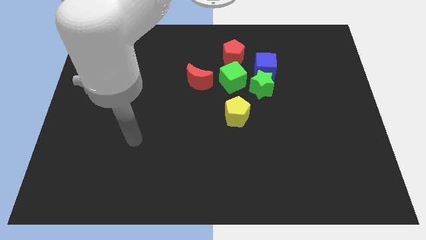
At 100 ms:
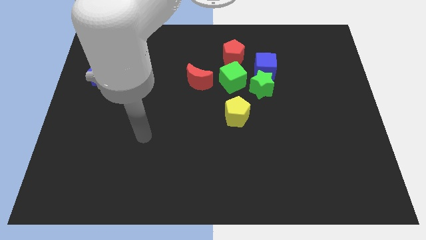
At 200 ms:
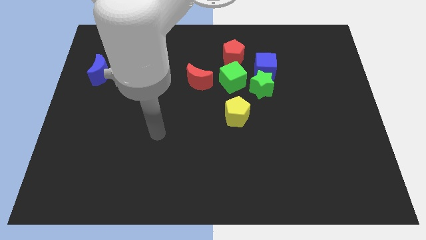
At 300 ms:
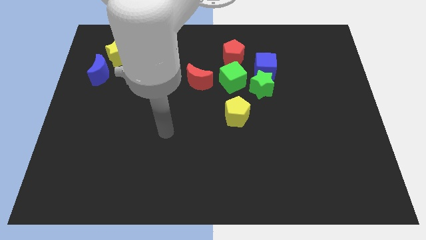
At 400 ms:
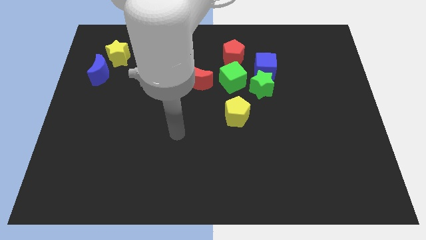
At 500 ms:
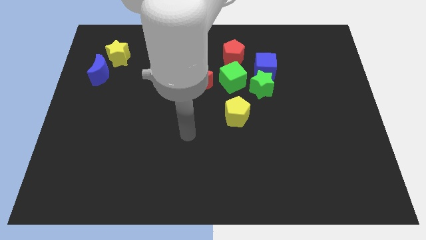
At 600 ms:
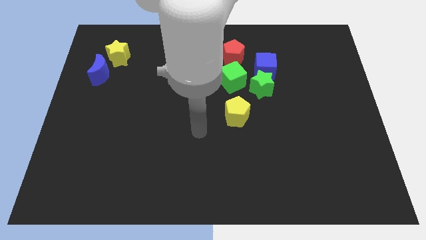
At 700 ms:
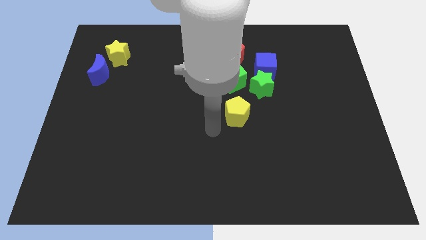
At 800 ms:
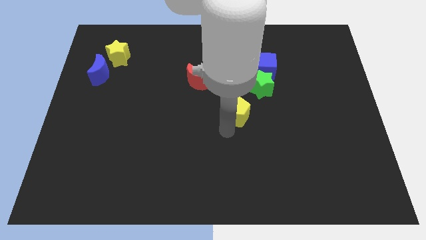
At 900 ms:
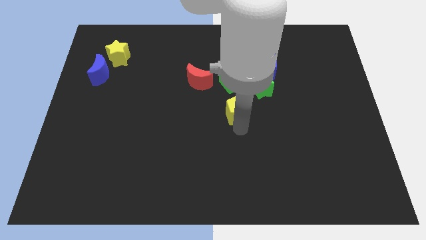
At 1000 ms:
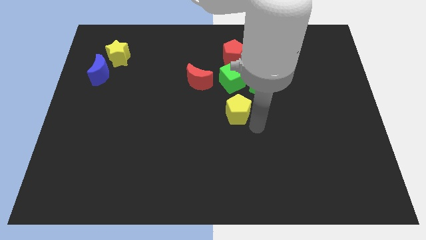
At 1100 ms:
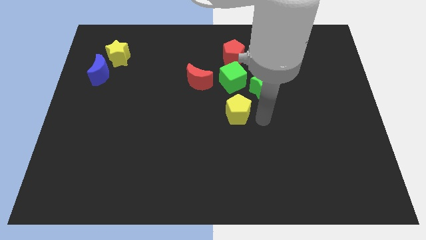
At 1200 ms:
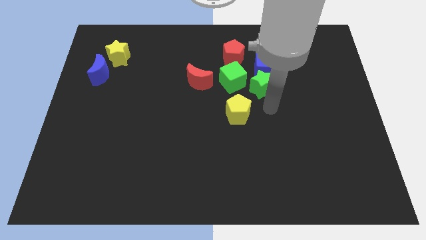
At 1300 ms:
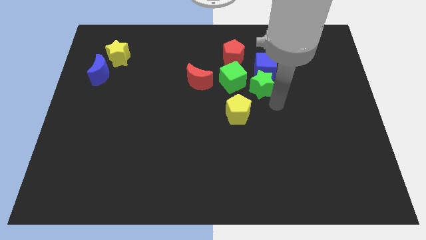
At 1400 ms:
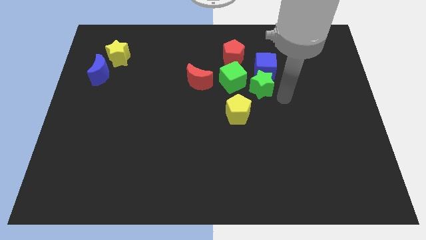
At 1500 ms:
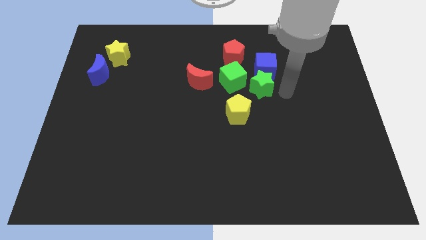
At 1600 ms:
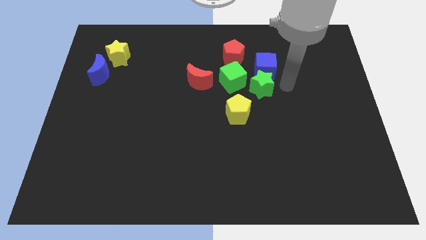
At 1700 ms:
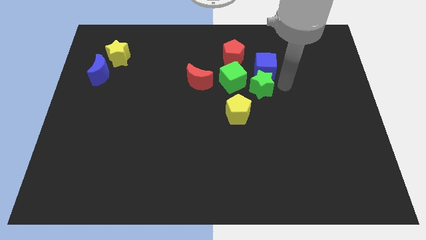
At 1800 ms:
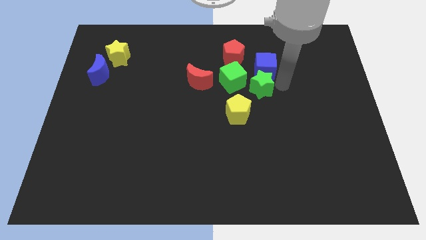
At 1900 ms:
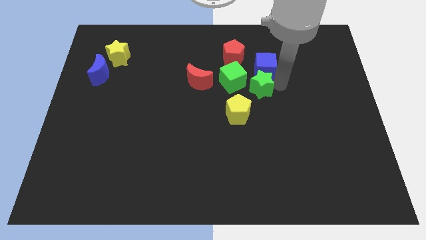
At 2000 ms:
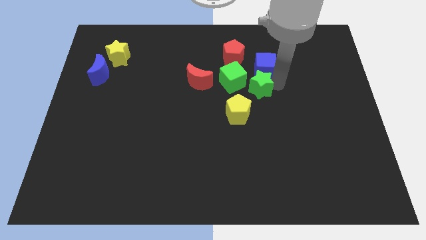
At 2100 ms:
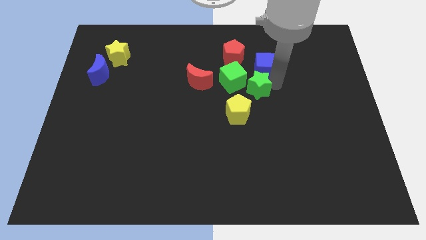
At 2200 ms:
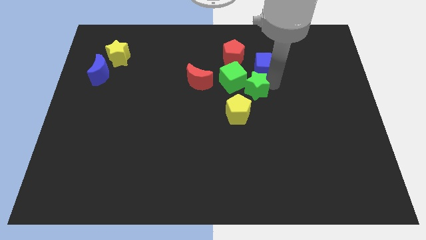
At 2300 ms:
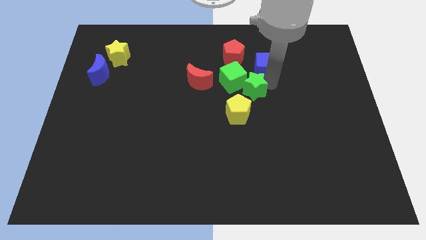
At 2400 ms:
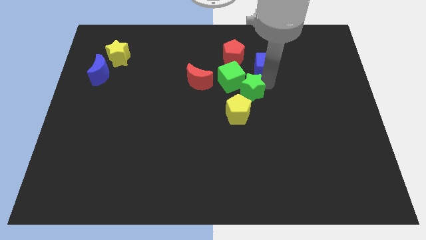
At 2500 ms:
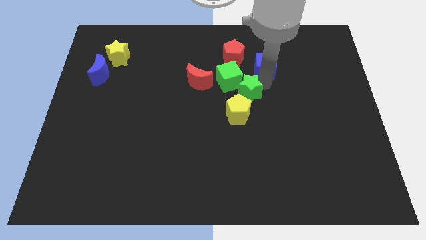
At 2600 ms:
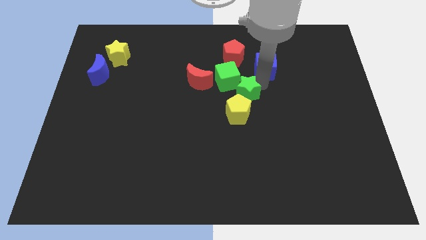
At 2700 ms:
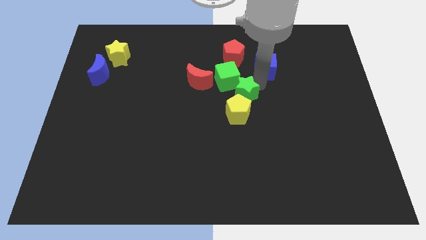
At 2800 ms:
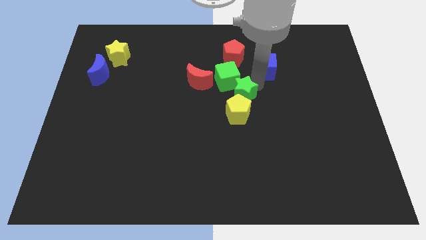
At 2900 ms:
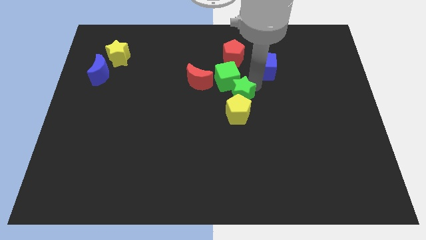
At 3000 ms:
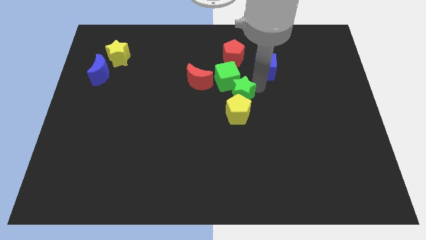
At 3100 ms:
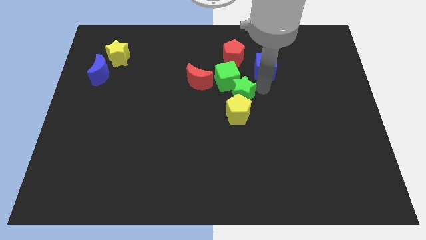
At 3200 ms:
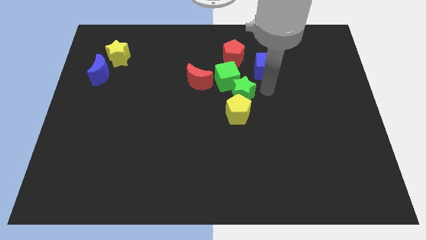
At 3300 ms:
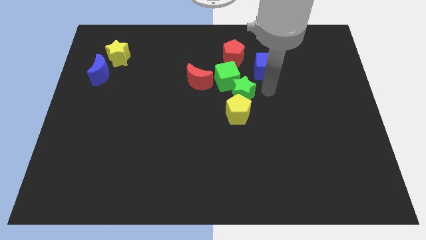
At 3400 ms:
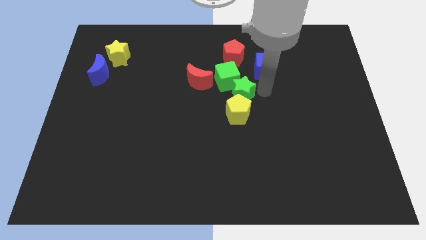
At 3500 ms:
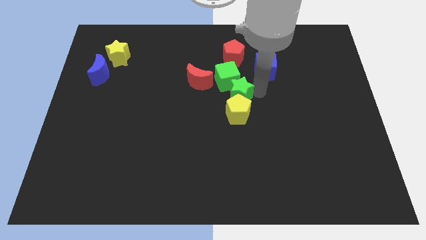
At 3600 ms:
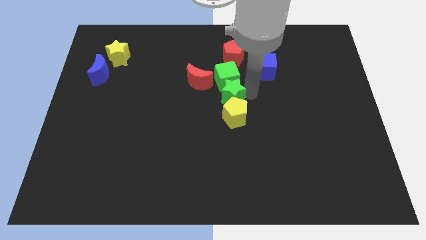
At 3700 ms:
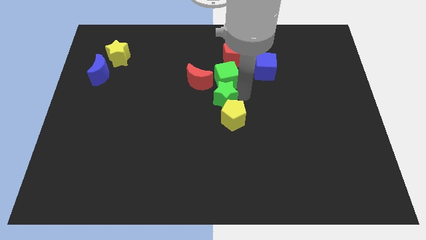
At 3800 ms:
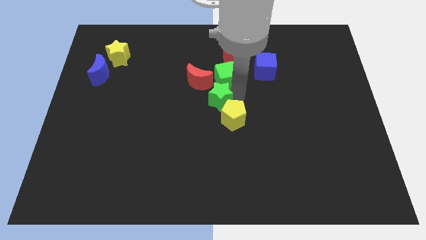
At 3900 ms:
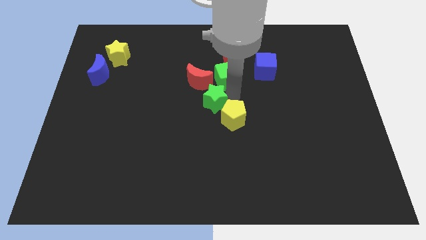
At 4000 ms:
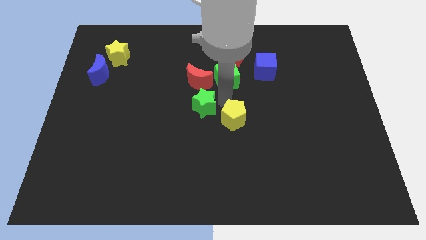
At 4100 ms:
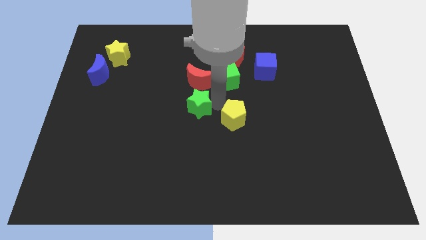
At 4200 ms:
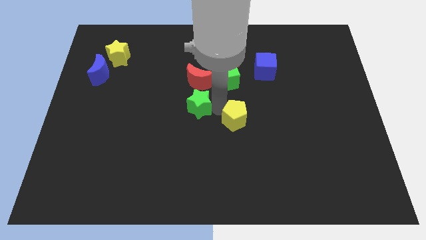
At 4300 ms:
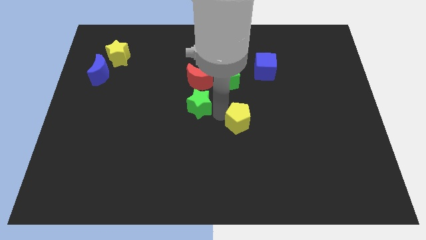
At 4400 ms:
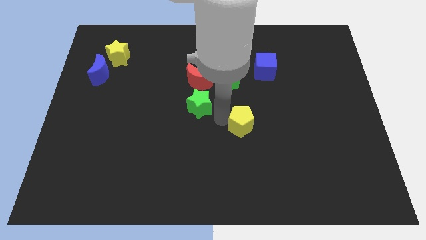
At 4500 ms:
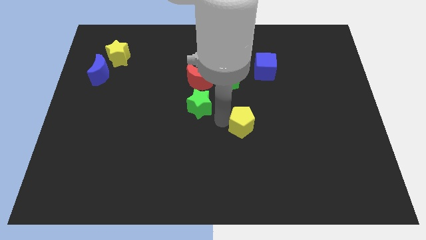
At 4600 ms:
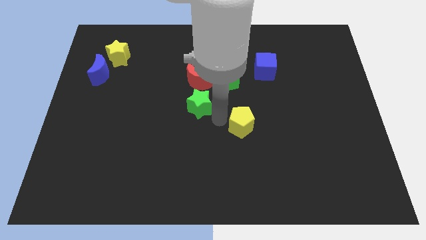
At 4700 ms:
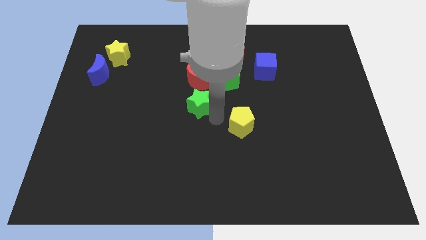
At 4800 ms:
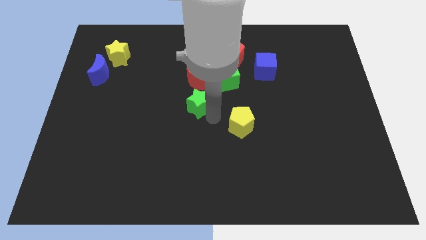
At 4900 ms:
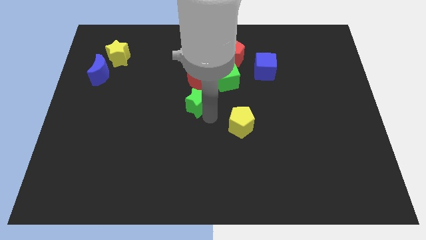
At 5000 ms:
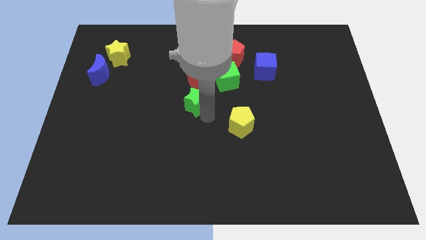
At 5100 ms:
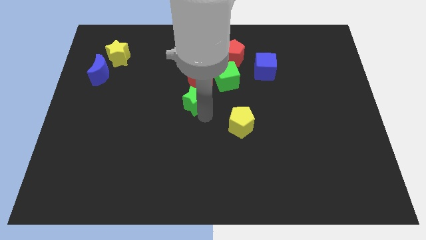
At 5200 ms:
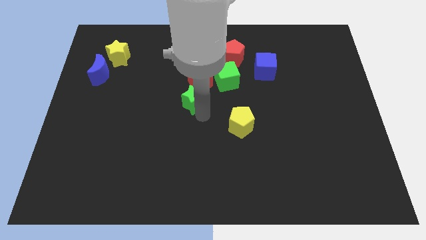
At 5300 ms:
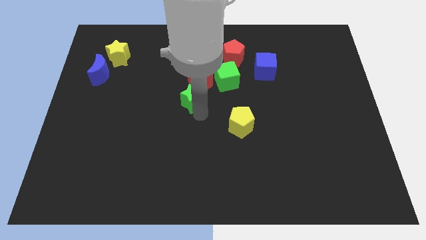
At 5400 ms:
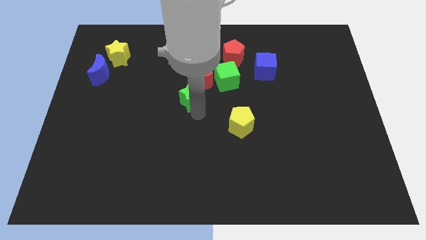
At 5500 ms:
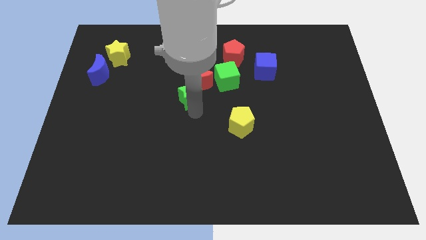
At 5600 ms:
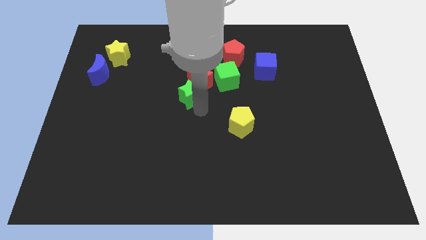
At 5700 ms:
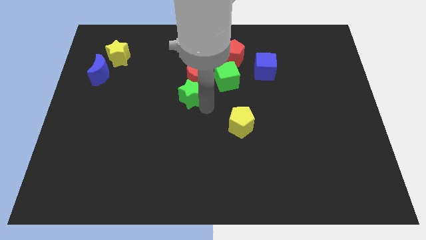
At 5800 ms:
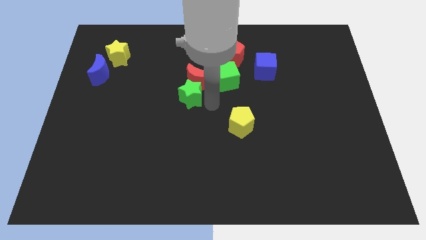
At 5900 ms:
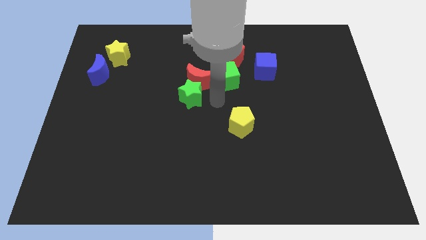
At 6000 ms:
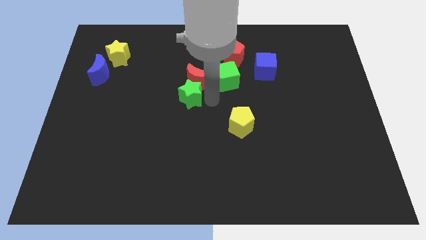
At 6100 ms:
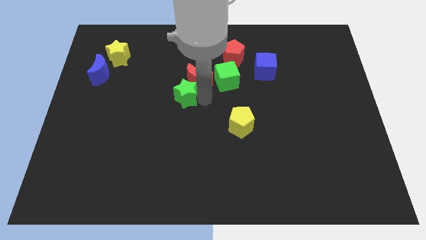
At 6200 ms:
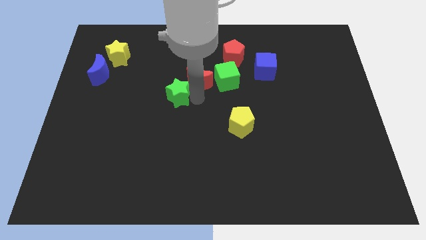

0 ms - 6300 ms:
slide the green star left

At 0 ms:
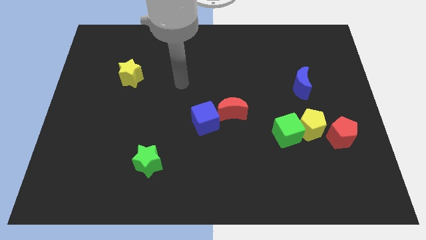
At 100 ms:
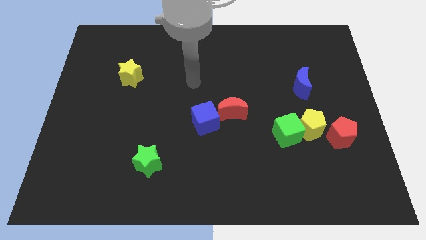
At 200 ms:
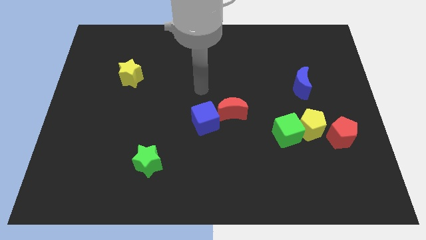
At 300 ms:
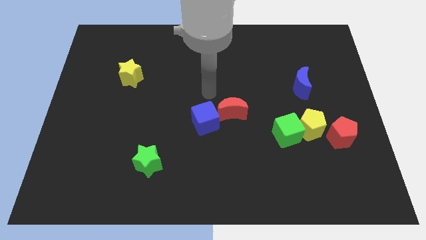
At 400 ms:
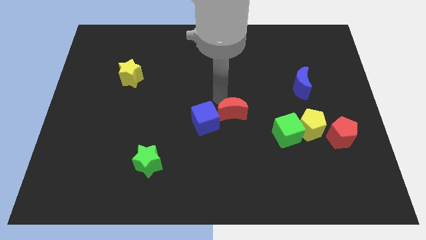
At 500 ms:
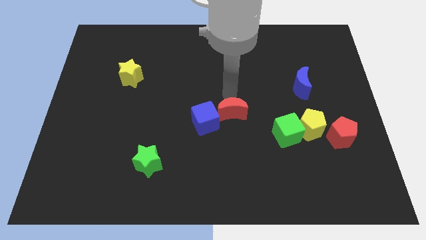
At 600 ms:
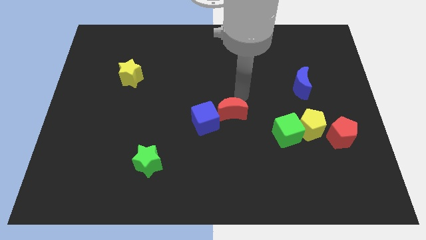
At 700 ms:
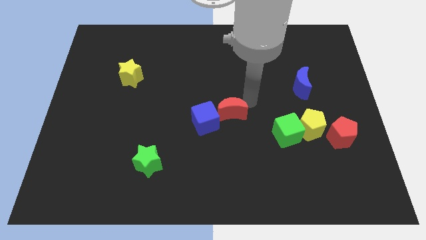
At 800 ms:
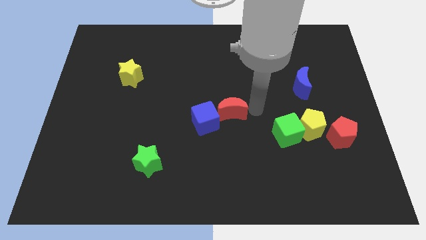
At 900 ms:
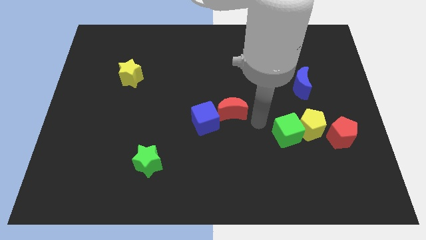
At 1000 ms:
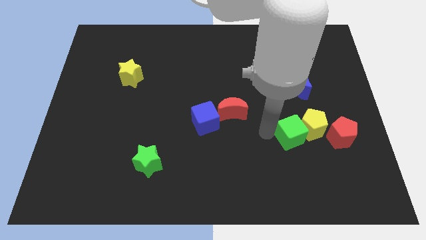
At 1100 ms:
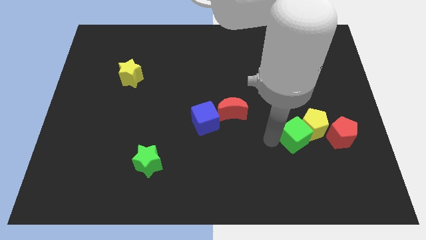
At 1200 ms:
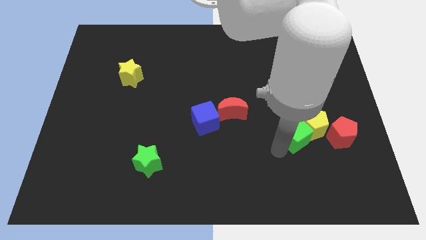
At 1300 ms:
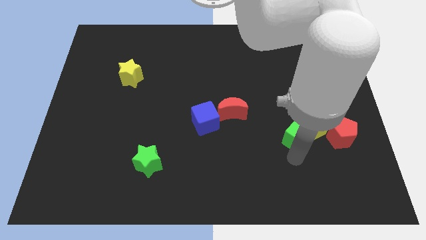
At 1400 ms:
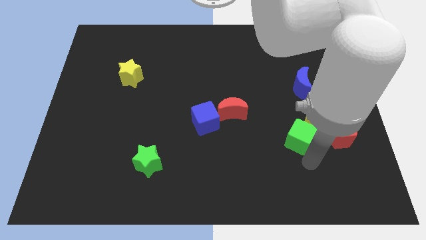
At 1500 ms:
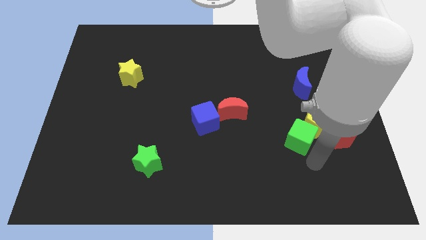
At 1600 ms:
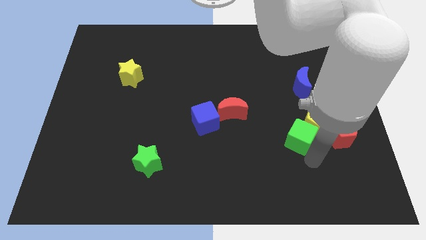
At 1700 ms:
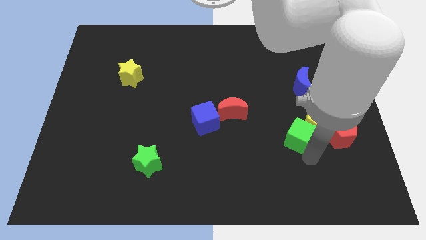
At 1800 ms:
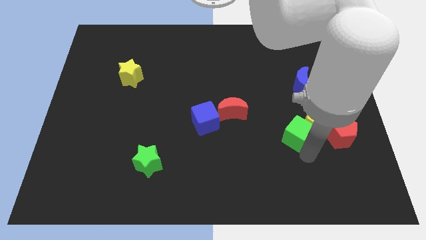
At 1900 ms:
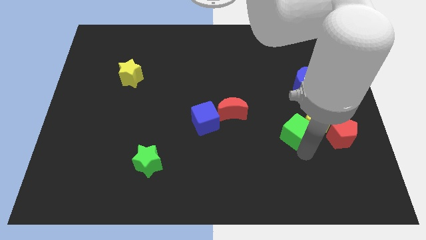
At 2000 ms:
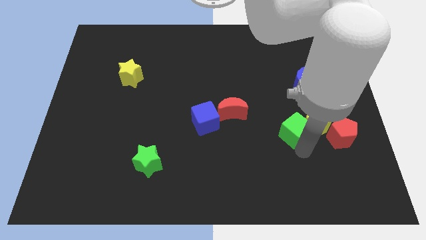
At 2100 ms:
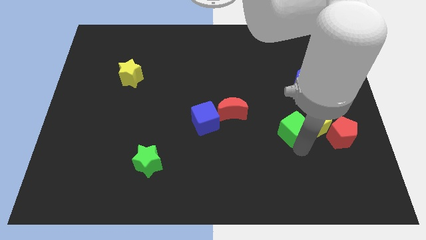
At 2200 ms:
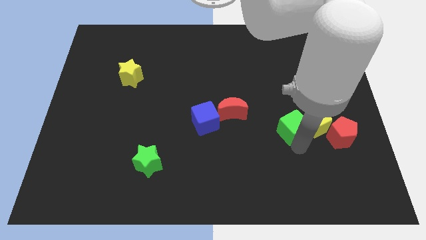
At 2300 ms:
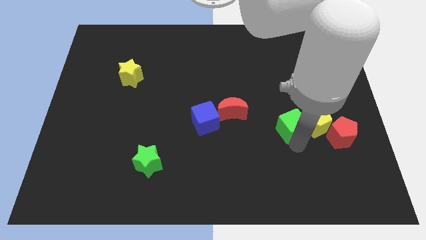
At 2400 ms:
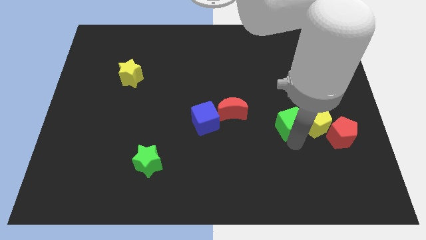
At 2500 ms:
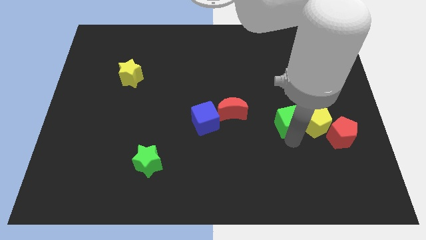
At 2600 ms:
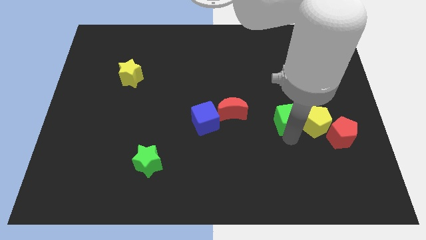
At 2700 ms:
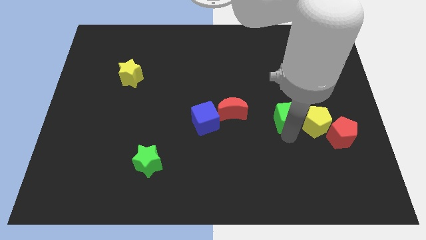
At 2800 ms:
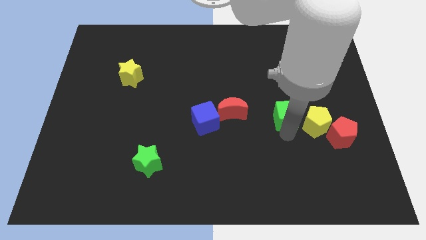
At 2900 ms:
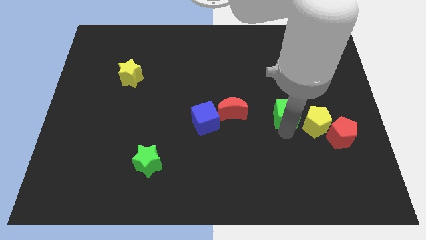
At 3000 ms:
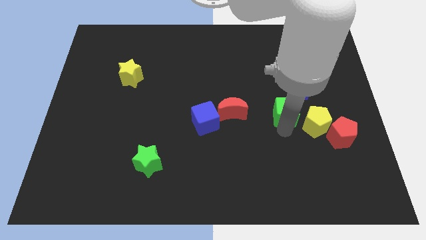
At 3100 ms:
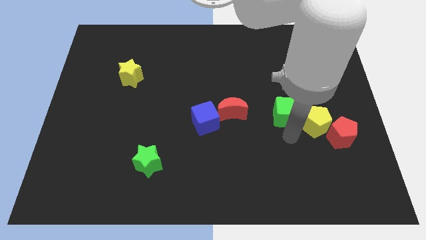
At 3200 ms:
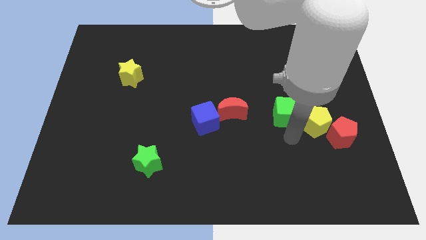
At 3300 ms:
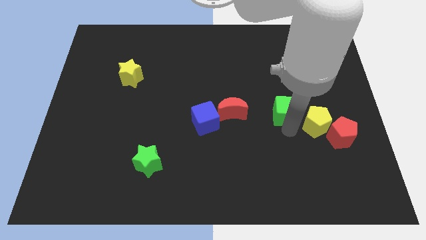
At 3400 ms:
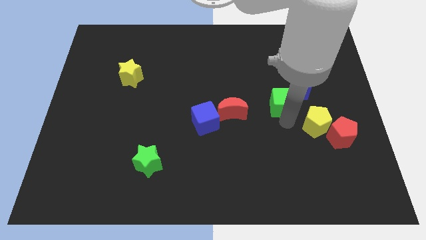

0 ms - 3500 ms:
slide the green cube slightly upwards
